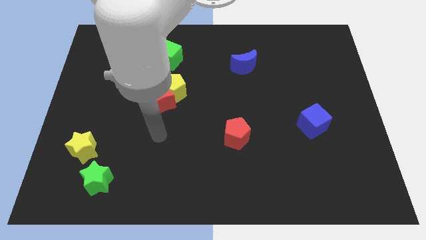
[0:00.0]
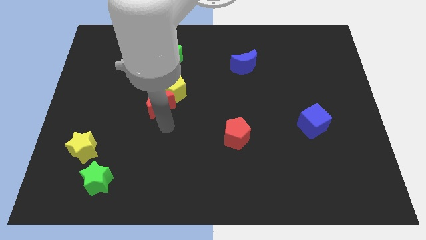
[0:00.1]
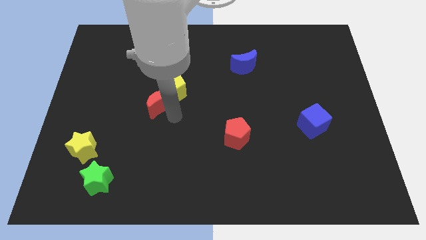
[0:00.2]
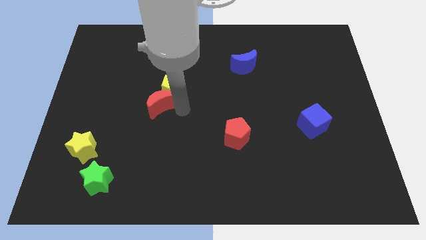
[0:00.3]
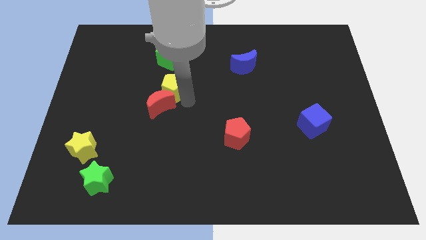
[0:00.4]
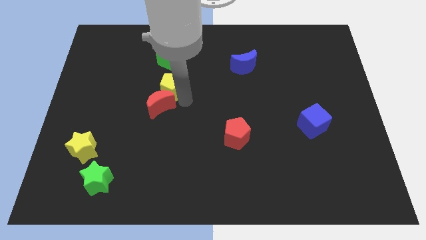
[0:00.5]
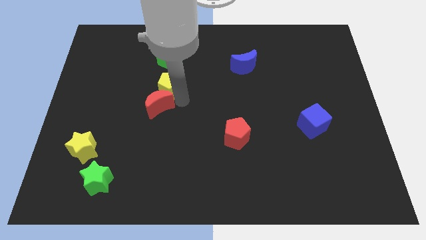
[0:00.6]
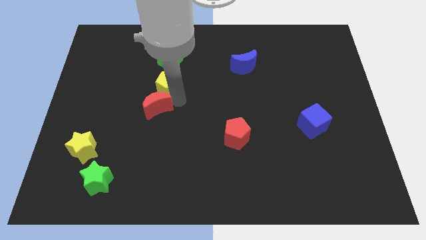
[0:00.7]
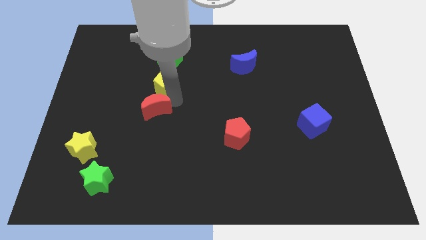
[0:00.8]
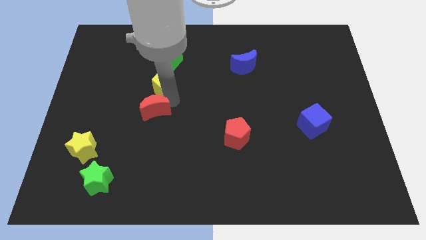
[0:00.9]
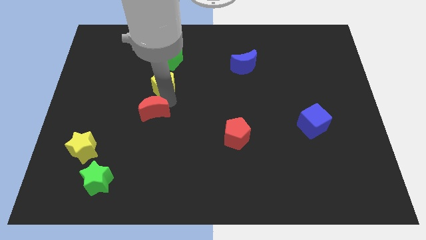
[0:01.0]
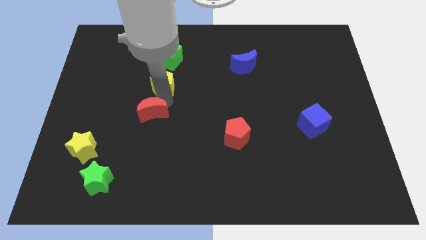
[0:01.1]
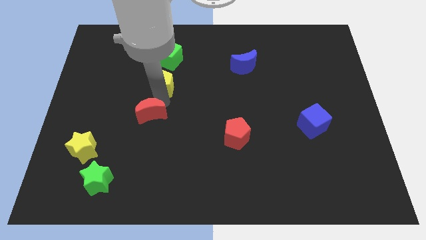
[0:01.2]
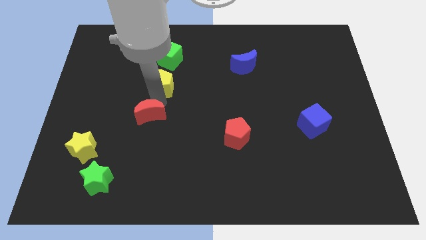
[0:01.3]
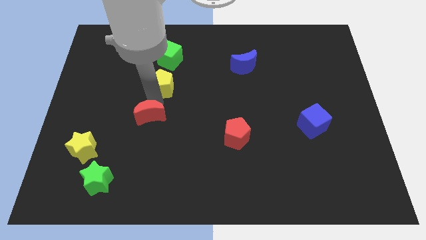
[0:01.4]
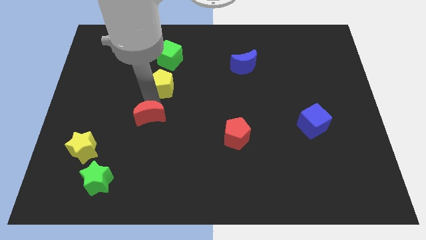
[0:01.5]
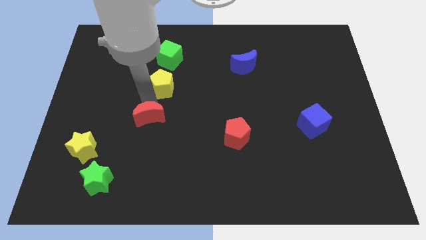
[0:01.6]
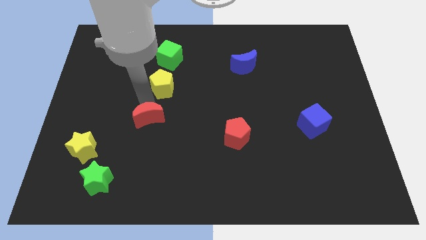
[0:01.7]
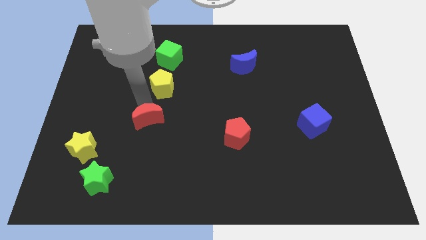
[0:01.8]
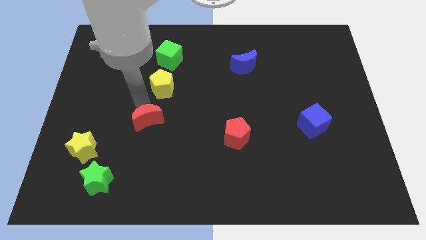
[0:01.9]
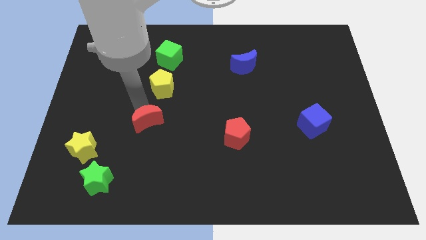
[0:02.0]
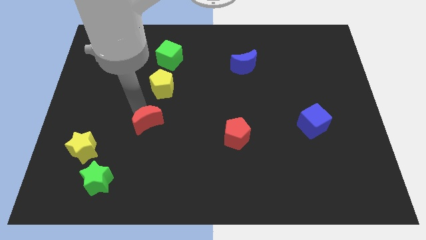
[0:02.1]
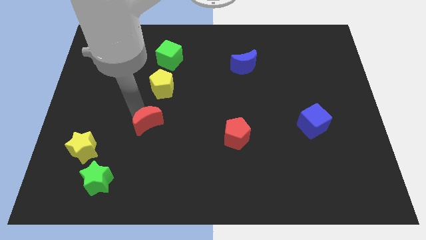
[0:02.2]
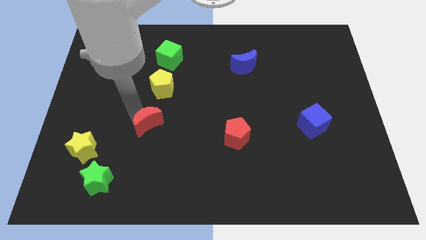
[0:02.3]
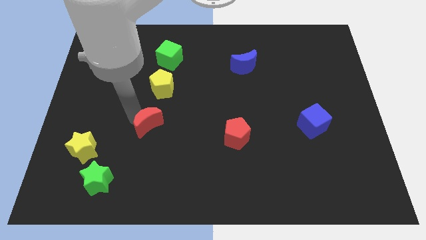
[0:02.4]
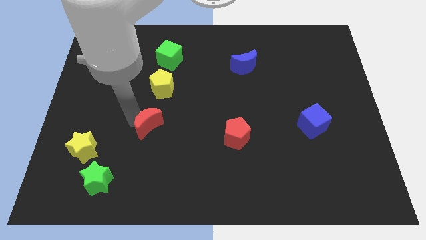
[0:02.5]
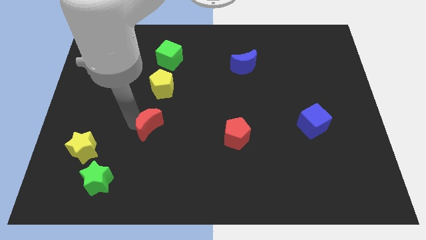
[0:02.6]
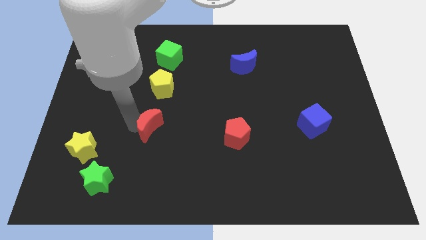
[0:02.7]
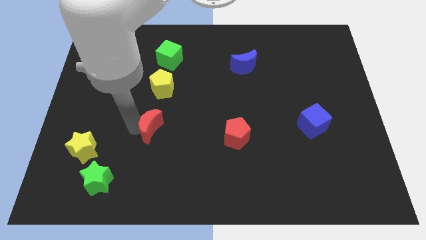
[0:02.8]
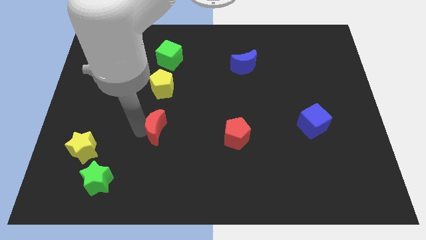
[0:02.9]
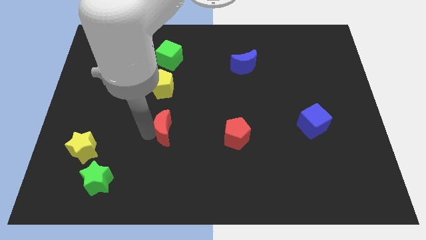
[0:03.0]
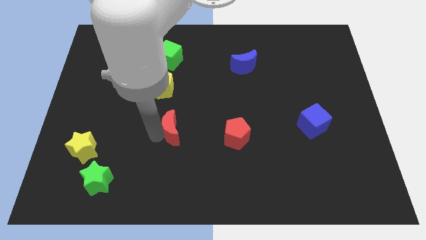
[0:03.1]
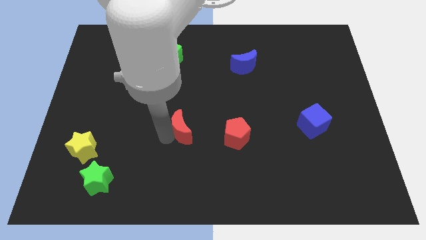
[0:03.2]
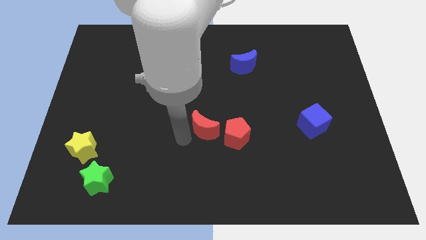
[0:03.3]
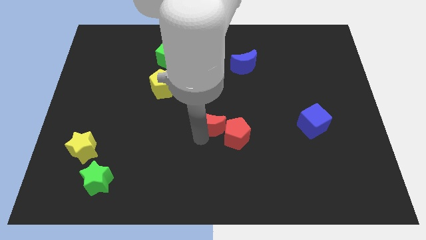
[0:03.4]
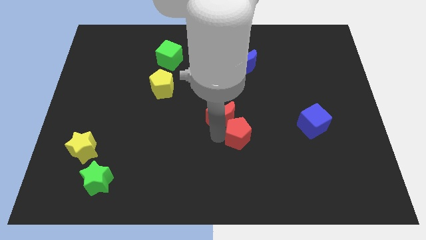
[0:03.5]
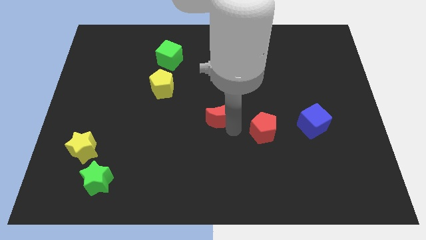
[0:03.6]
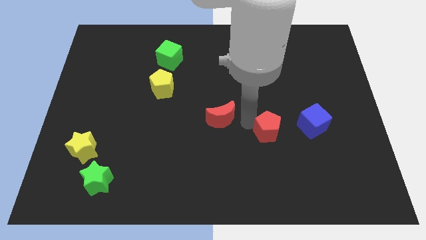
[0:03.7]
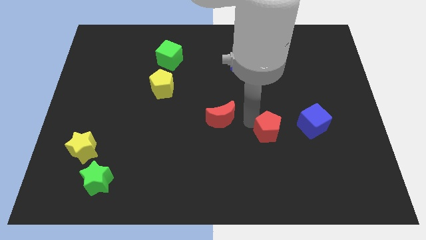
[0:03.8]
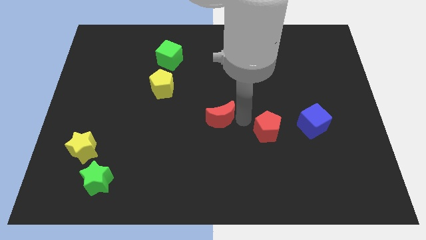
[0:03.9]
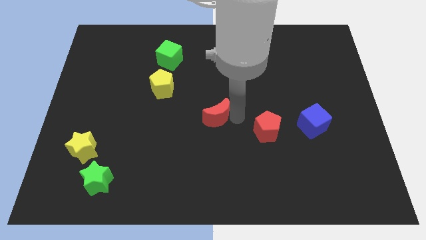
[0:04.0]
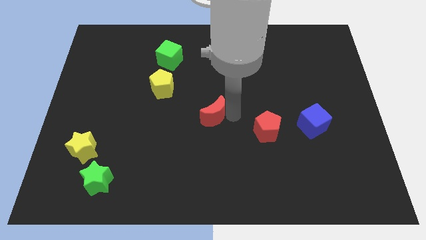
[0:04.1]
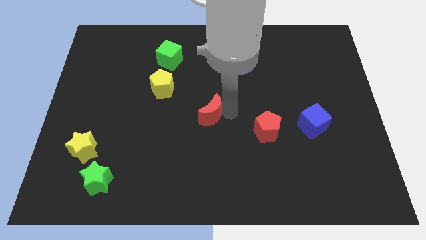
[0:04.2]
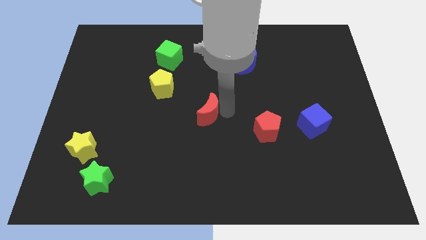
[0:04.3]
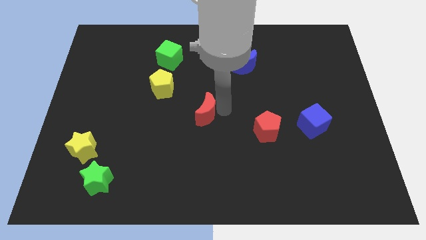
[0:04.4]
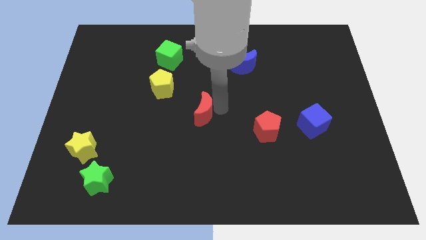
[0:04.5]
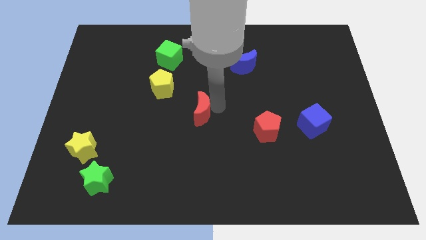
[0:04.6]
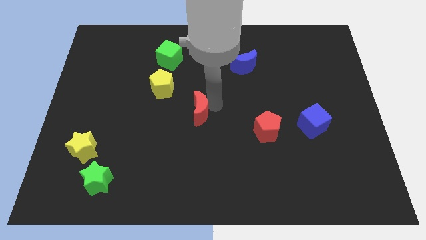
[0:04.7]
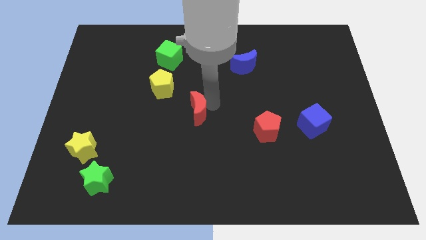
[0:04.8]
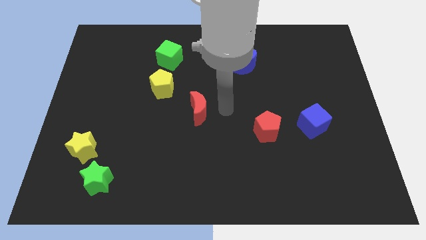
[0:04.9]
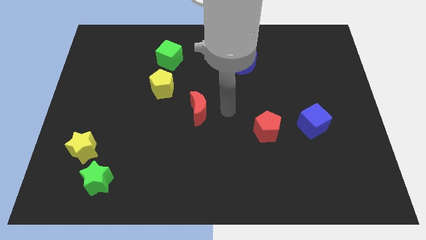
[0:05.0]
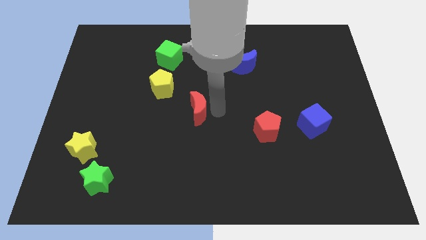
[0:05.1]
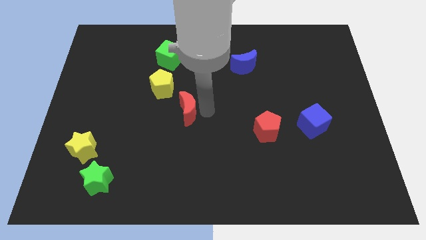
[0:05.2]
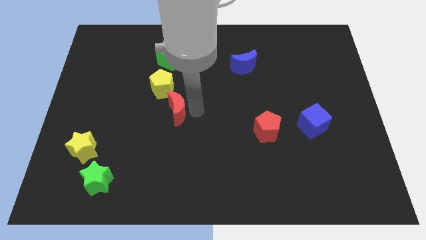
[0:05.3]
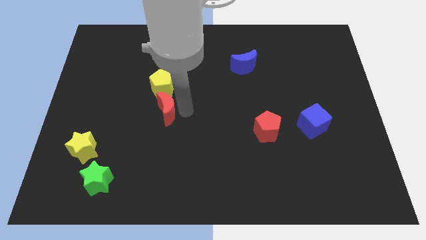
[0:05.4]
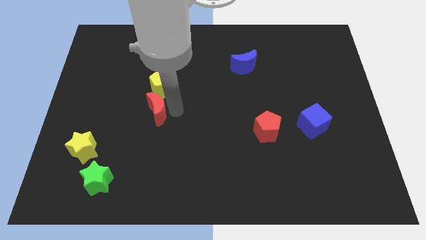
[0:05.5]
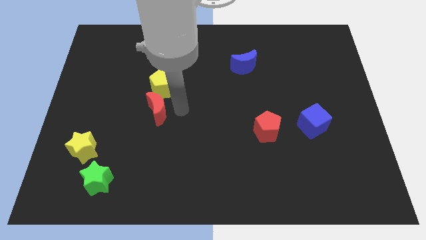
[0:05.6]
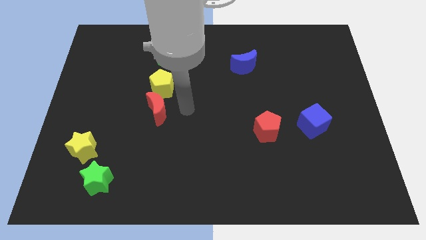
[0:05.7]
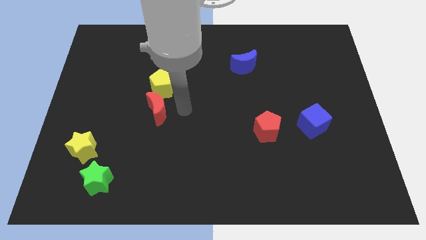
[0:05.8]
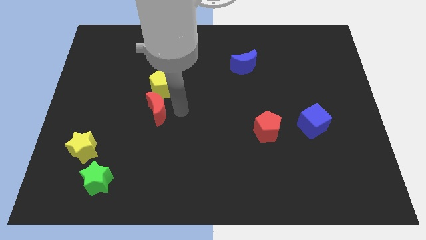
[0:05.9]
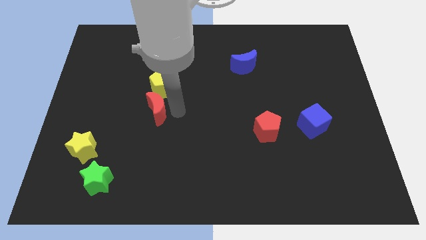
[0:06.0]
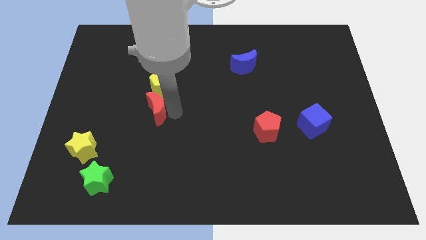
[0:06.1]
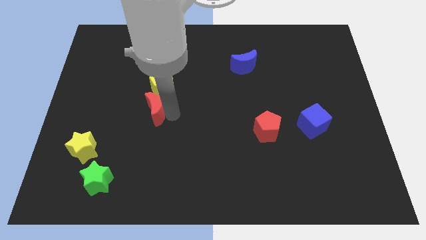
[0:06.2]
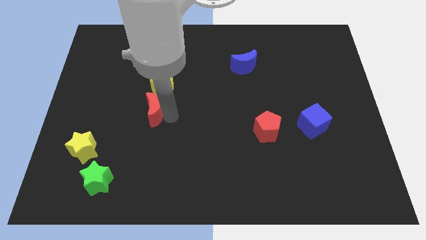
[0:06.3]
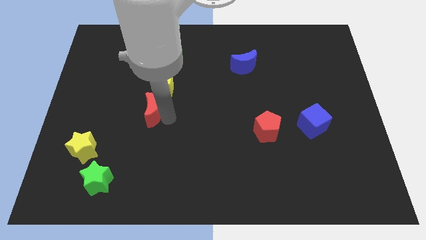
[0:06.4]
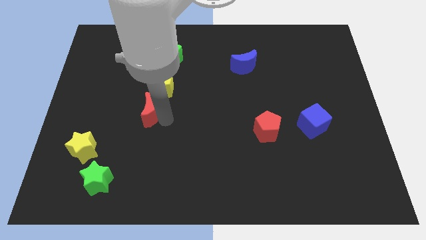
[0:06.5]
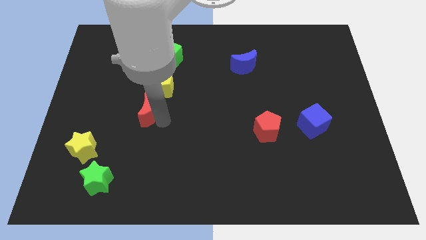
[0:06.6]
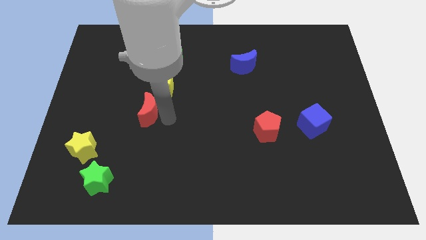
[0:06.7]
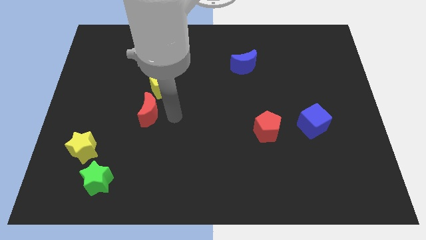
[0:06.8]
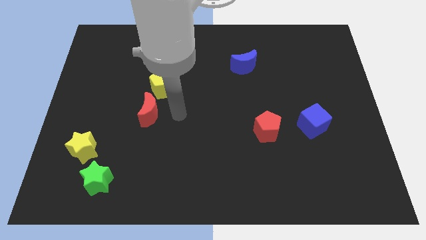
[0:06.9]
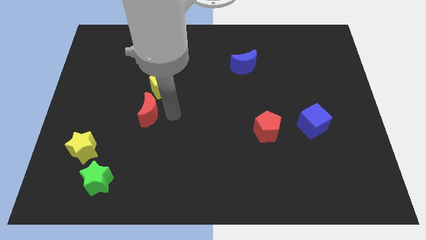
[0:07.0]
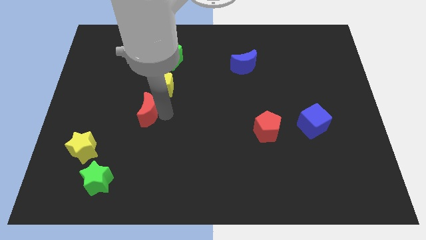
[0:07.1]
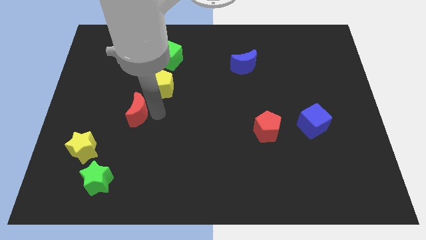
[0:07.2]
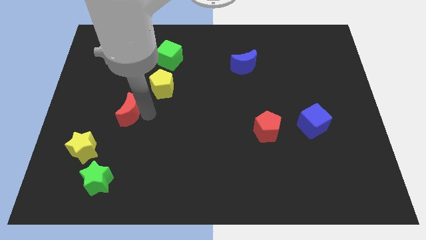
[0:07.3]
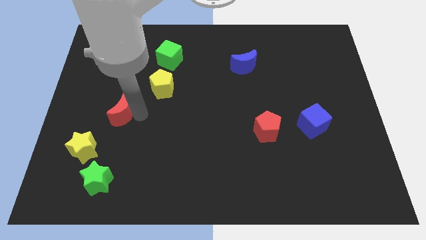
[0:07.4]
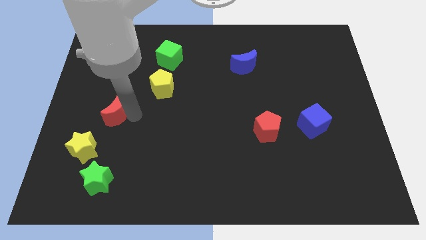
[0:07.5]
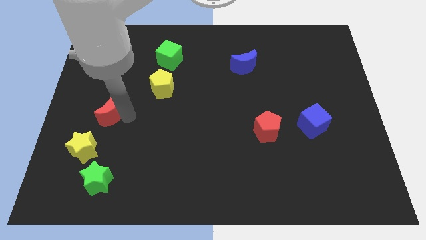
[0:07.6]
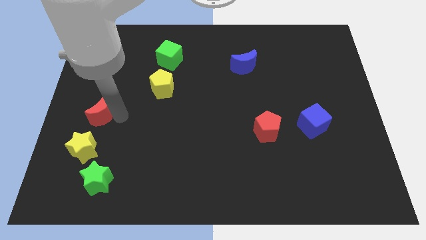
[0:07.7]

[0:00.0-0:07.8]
slide the red moon to the left side of the board

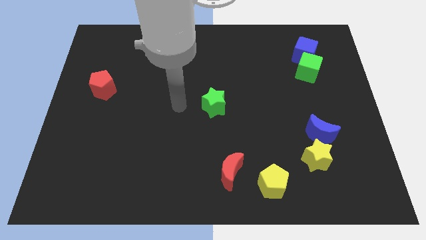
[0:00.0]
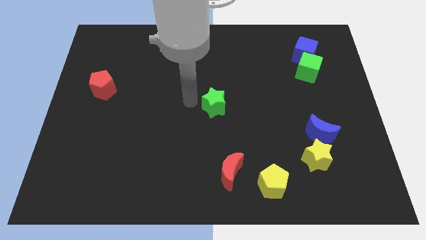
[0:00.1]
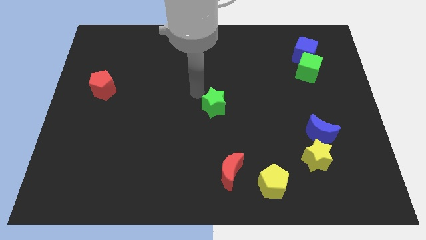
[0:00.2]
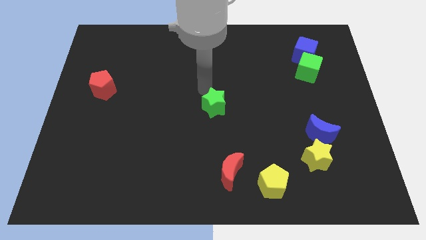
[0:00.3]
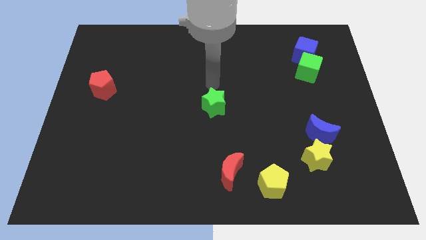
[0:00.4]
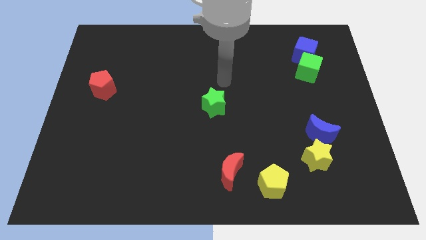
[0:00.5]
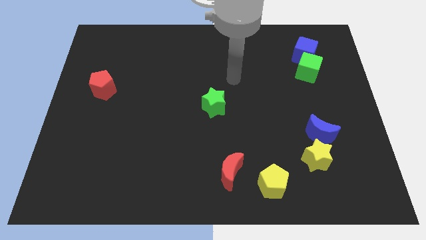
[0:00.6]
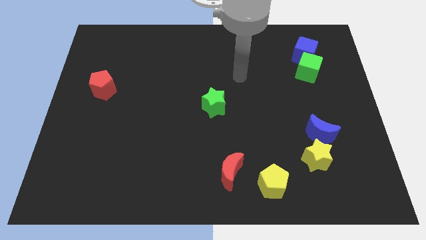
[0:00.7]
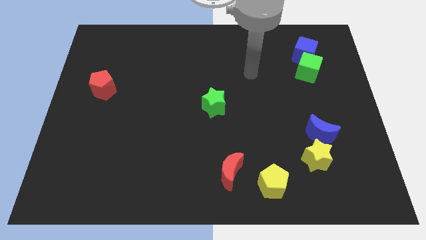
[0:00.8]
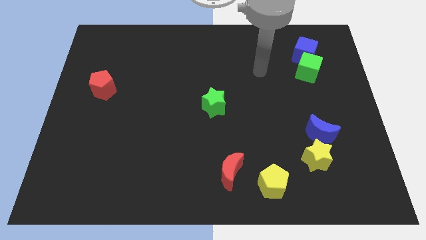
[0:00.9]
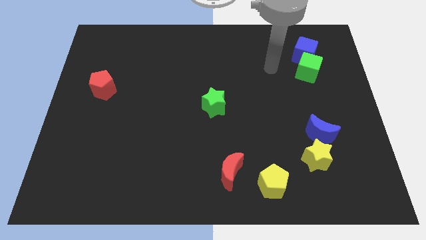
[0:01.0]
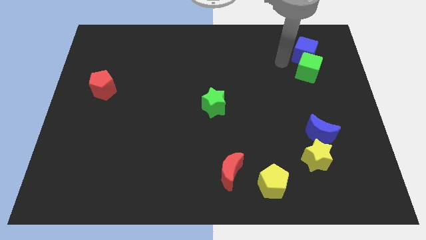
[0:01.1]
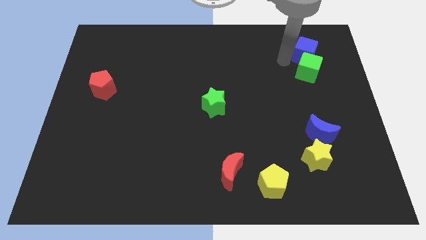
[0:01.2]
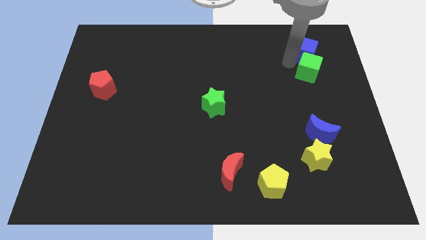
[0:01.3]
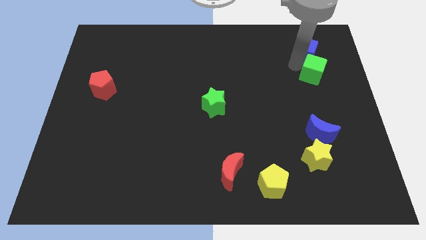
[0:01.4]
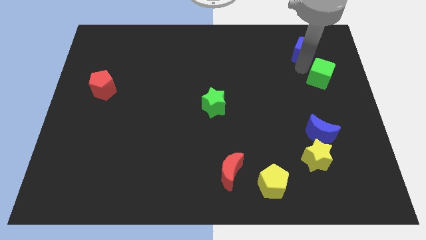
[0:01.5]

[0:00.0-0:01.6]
move the green cube to the right side of the board
